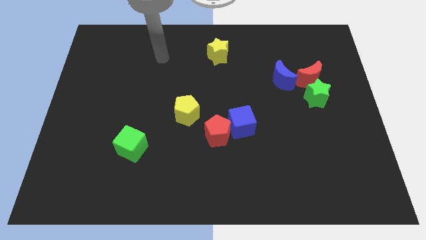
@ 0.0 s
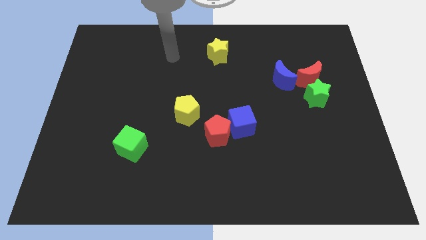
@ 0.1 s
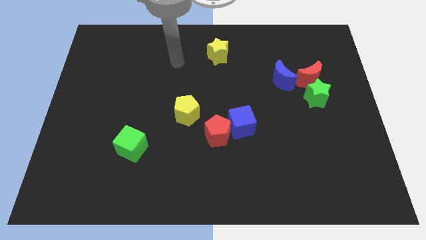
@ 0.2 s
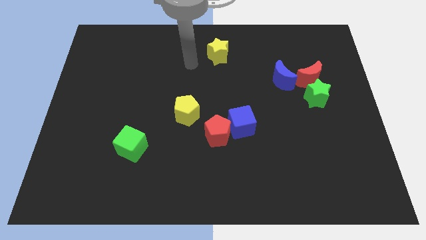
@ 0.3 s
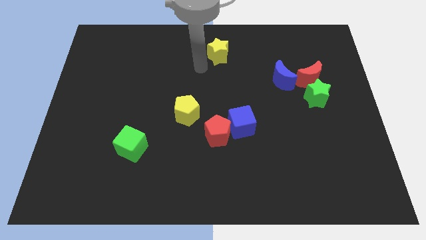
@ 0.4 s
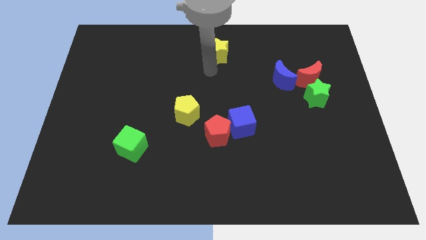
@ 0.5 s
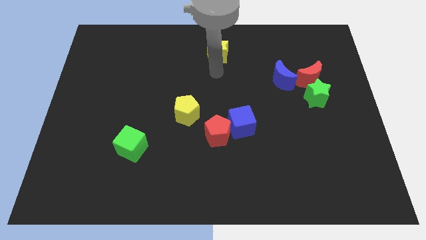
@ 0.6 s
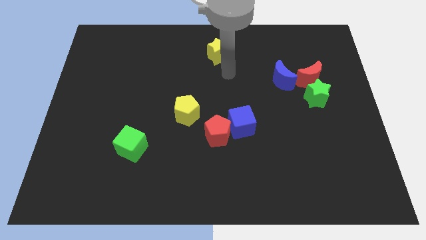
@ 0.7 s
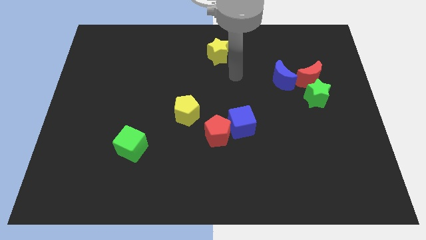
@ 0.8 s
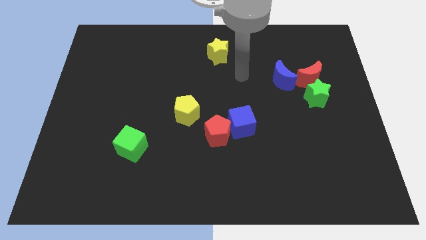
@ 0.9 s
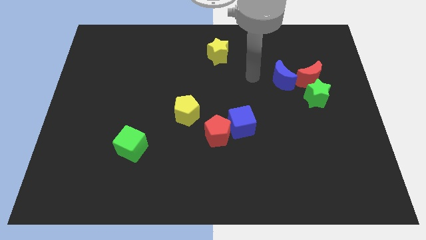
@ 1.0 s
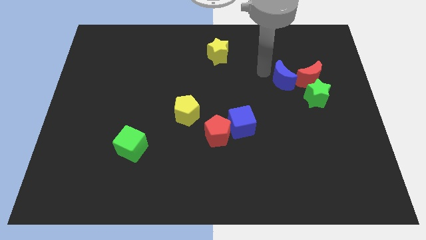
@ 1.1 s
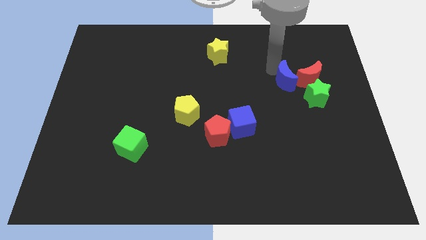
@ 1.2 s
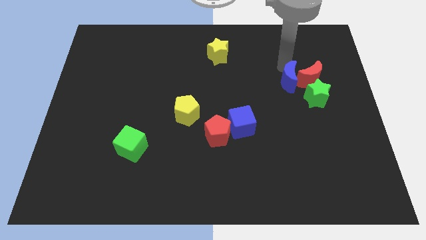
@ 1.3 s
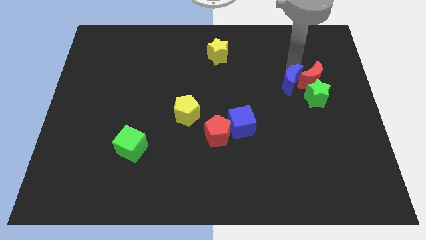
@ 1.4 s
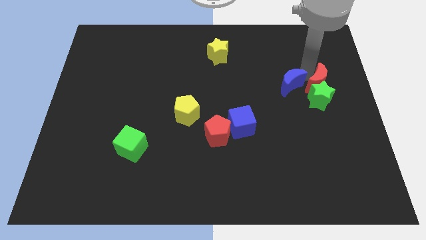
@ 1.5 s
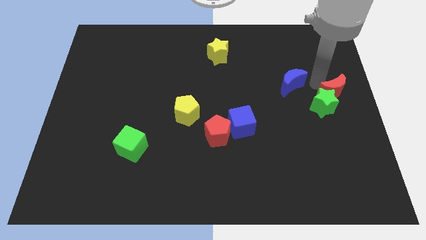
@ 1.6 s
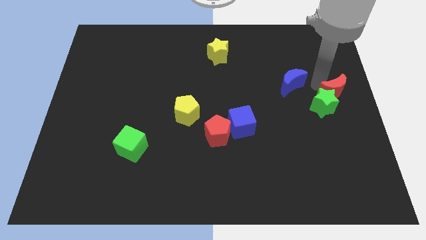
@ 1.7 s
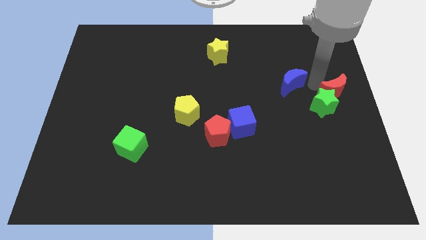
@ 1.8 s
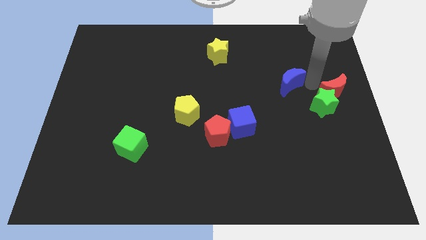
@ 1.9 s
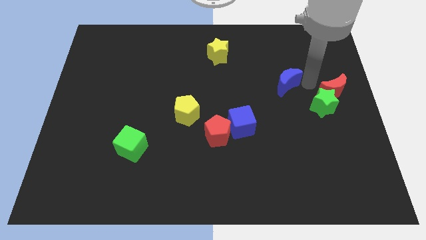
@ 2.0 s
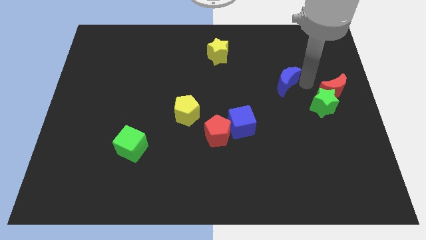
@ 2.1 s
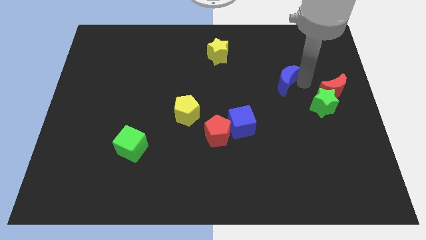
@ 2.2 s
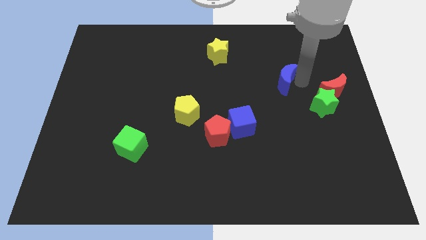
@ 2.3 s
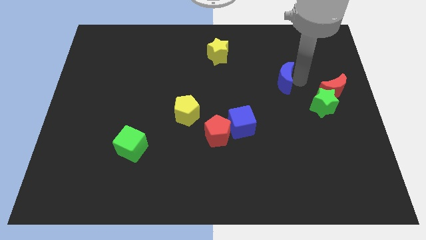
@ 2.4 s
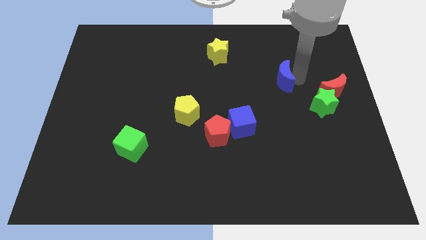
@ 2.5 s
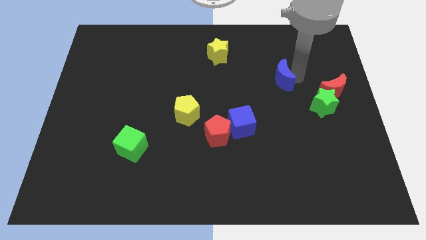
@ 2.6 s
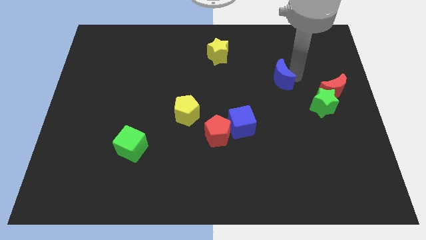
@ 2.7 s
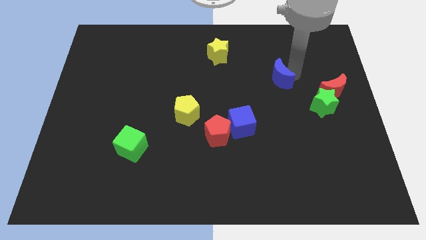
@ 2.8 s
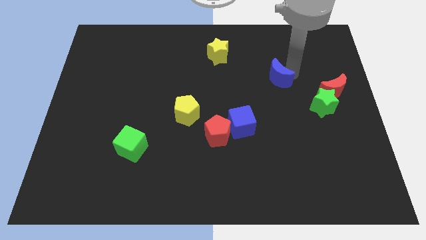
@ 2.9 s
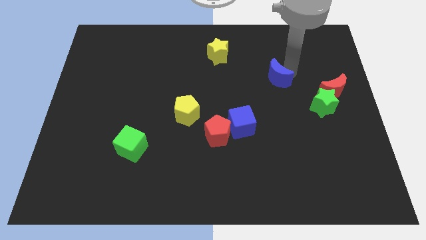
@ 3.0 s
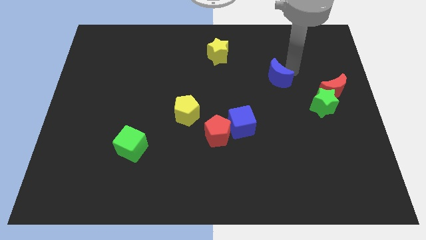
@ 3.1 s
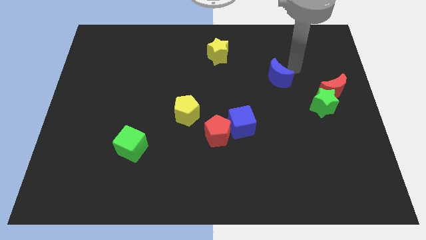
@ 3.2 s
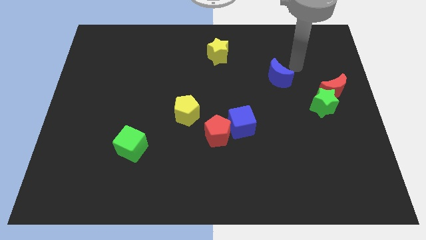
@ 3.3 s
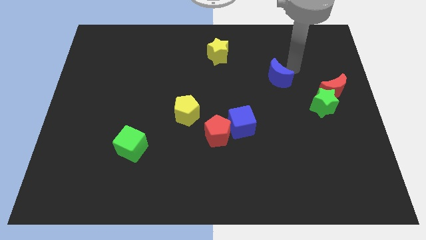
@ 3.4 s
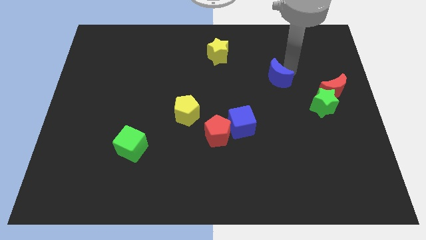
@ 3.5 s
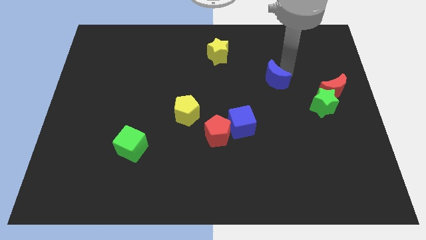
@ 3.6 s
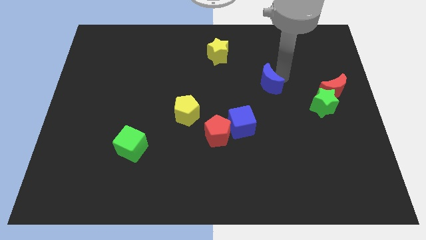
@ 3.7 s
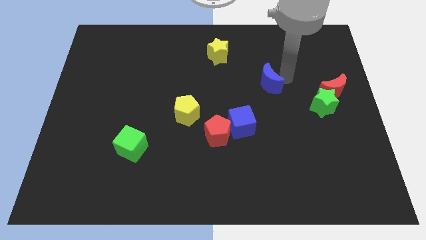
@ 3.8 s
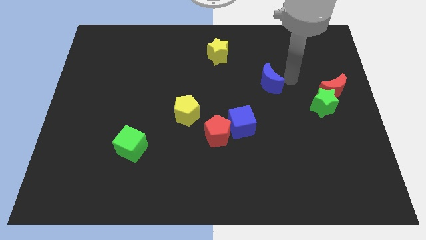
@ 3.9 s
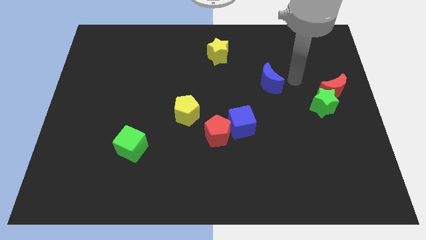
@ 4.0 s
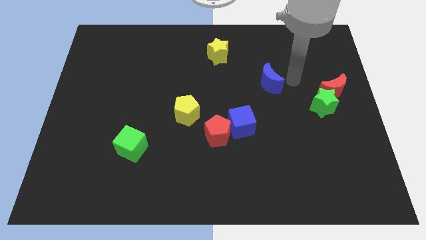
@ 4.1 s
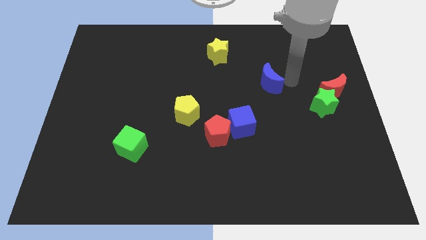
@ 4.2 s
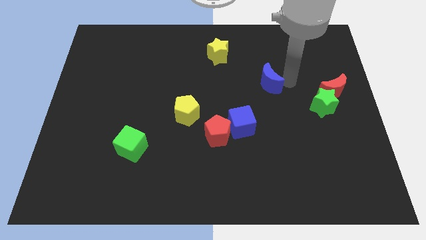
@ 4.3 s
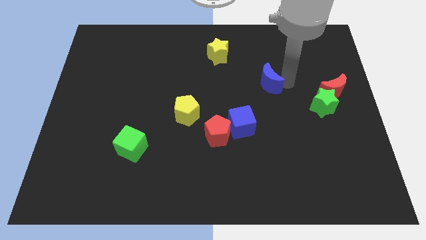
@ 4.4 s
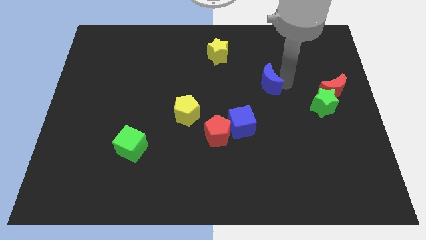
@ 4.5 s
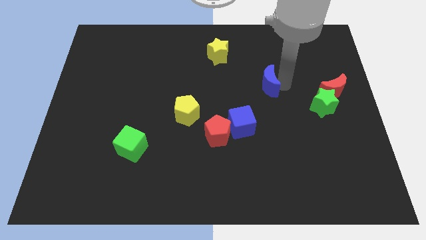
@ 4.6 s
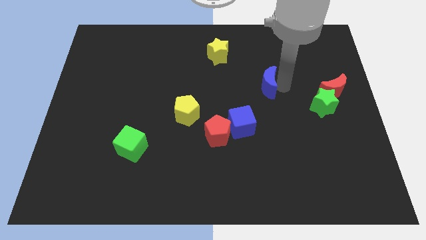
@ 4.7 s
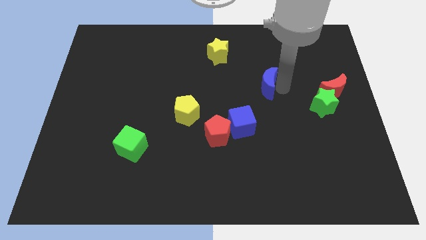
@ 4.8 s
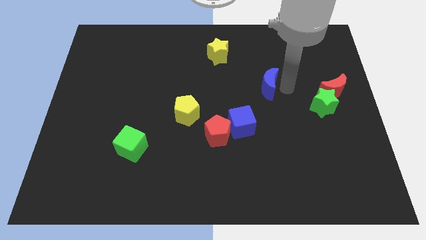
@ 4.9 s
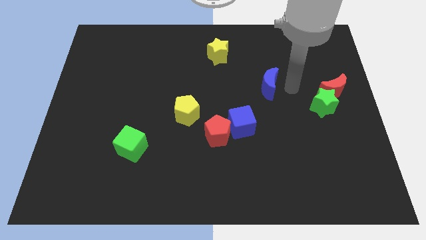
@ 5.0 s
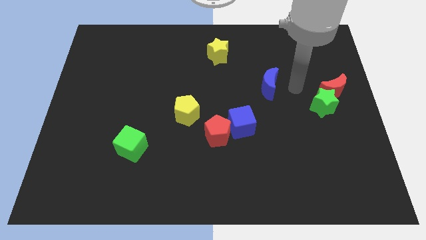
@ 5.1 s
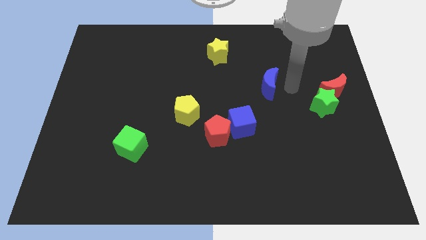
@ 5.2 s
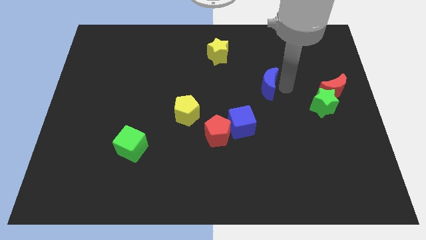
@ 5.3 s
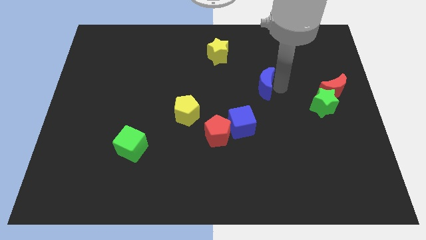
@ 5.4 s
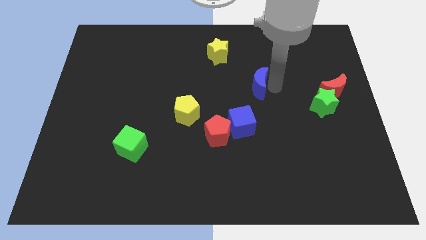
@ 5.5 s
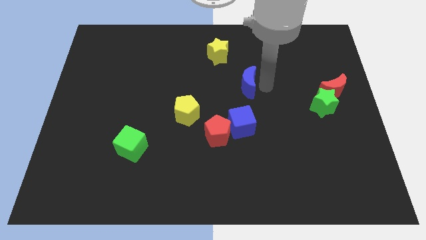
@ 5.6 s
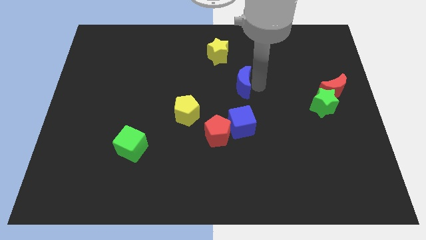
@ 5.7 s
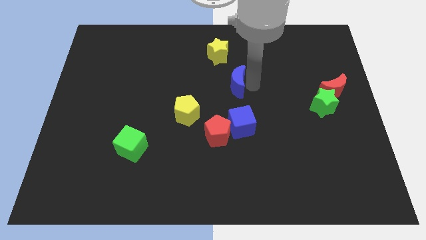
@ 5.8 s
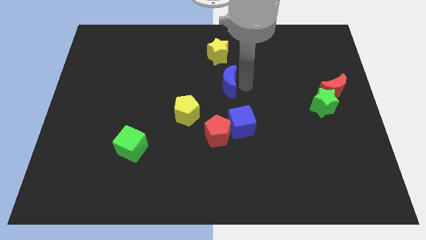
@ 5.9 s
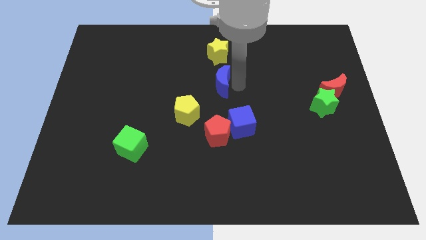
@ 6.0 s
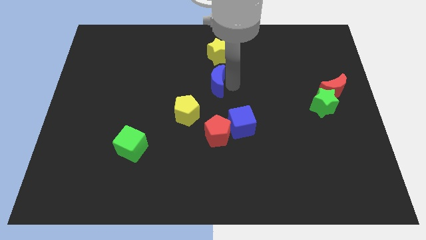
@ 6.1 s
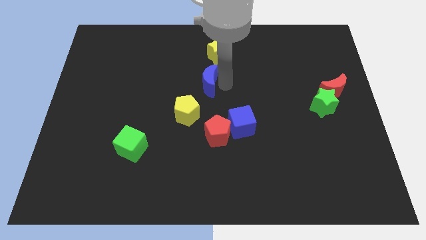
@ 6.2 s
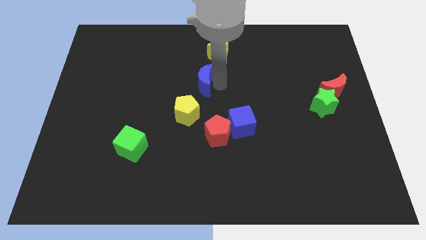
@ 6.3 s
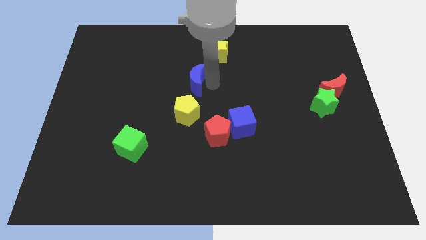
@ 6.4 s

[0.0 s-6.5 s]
move the blue moon to the left

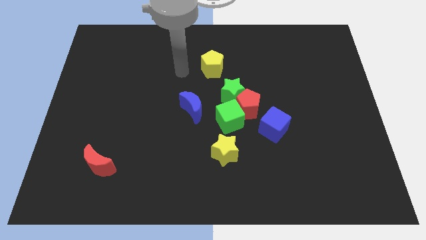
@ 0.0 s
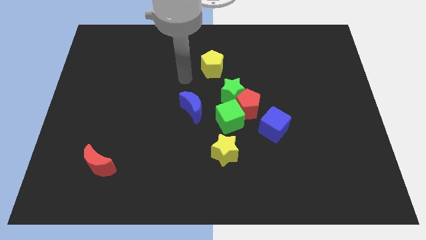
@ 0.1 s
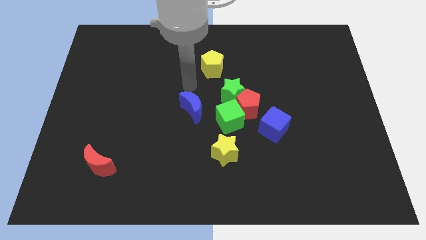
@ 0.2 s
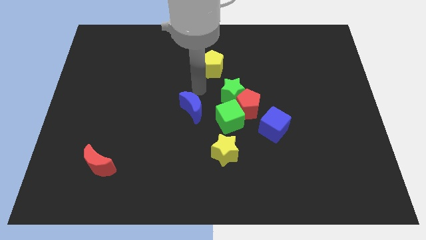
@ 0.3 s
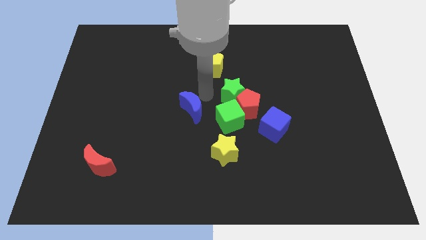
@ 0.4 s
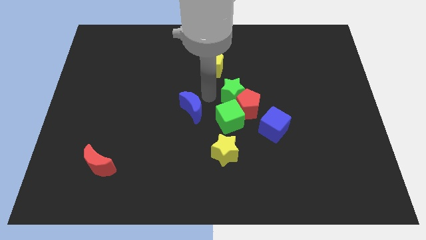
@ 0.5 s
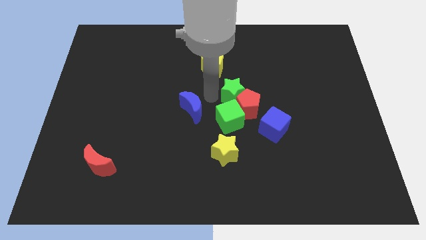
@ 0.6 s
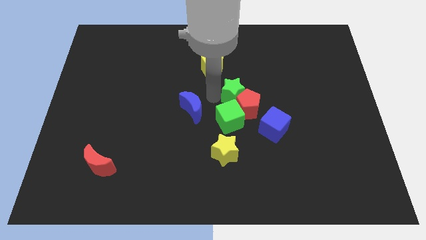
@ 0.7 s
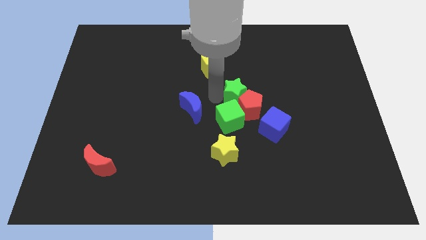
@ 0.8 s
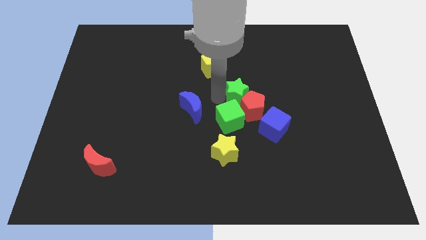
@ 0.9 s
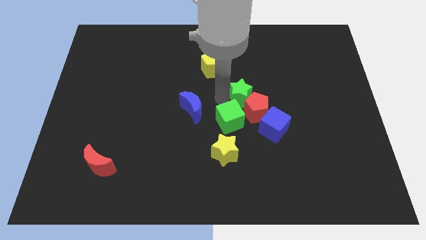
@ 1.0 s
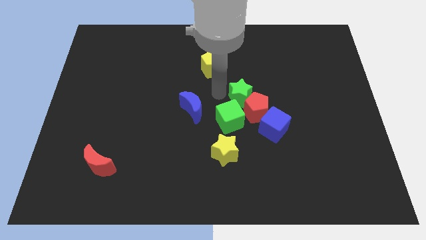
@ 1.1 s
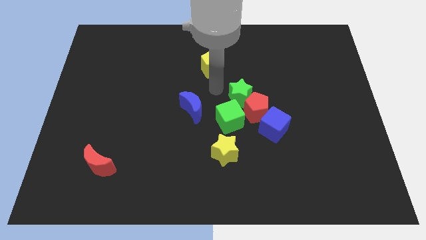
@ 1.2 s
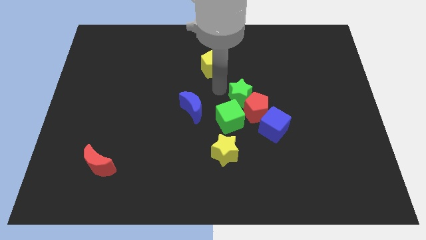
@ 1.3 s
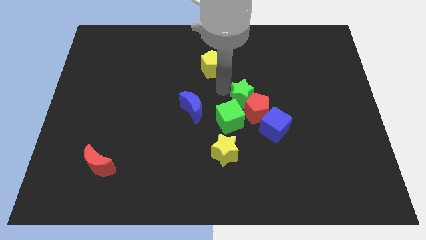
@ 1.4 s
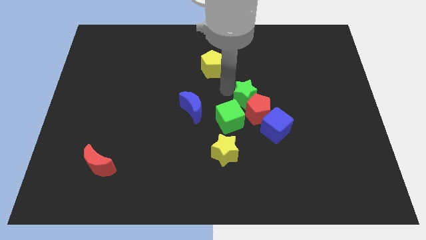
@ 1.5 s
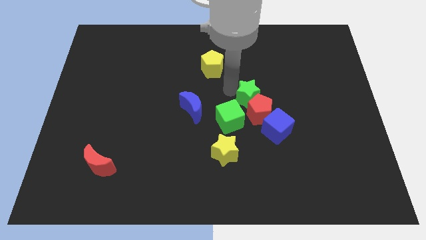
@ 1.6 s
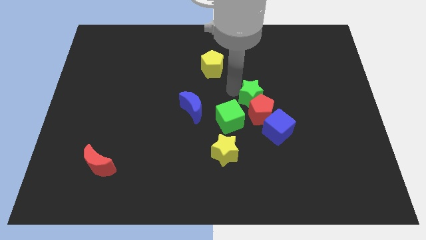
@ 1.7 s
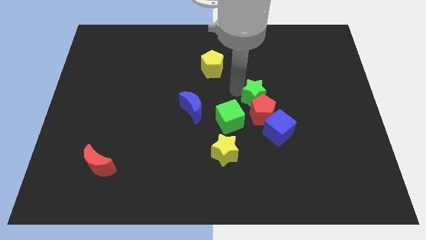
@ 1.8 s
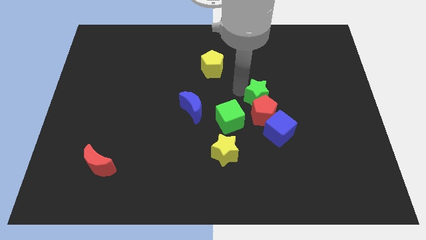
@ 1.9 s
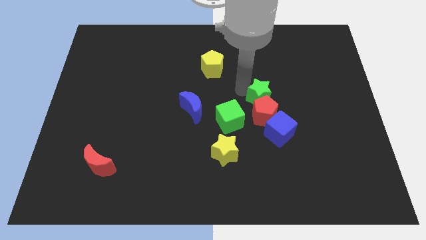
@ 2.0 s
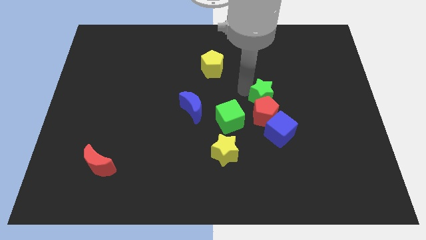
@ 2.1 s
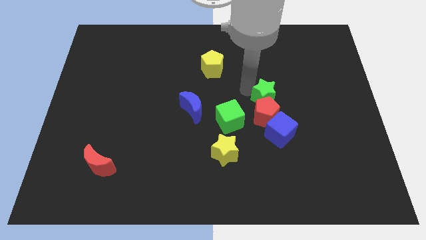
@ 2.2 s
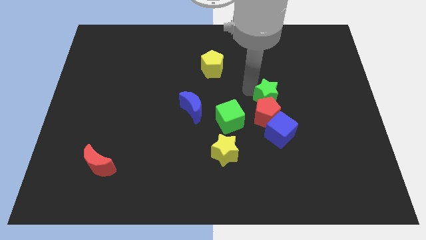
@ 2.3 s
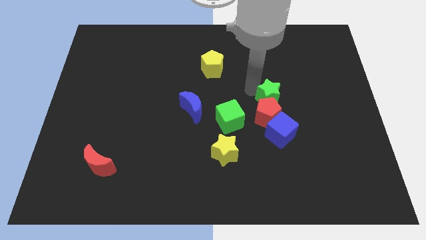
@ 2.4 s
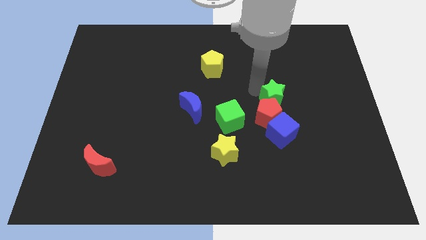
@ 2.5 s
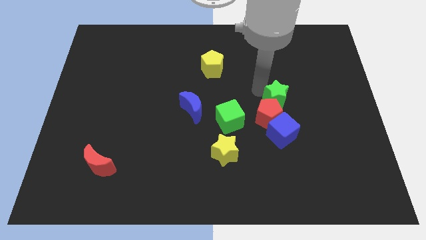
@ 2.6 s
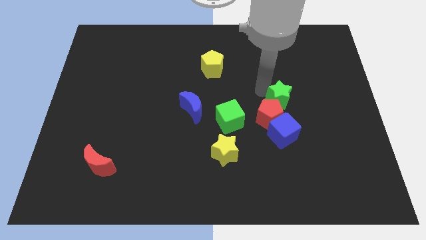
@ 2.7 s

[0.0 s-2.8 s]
move the green star down and to the right a little
